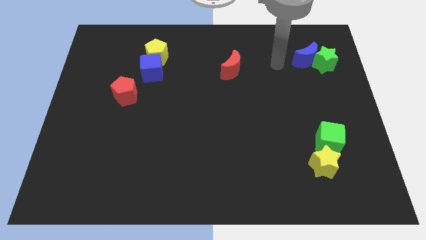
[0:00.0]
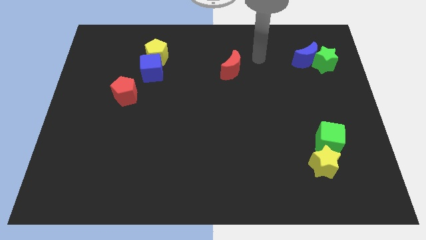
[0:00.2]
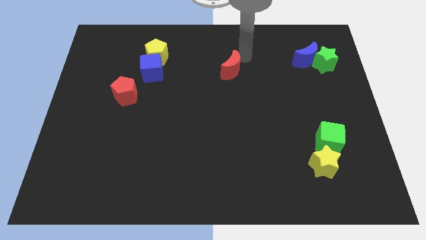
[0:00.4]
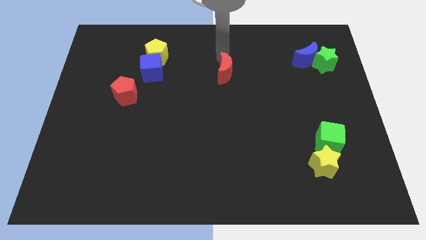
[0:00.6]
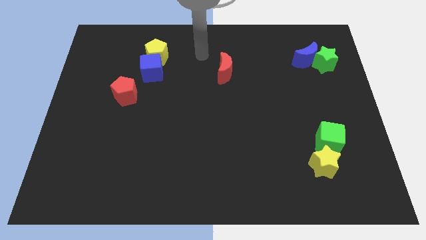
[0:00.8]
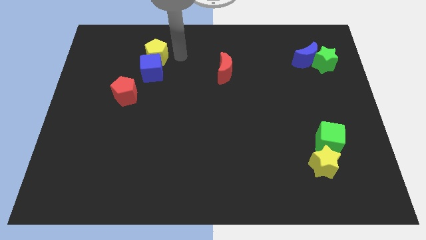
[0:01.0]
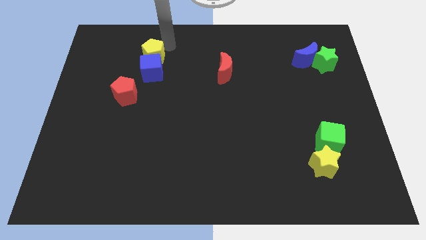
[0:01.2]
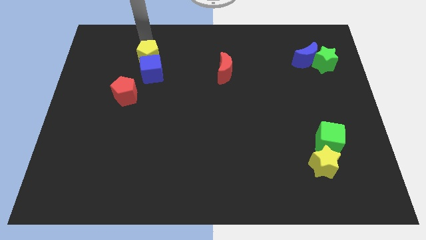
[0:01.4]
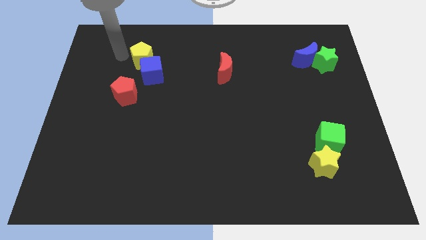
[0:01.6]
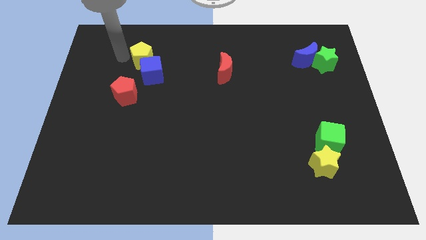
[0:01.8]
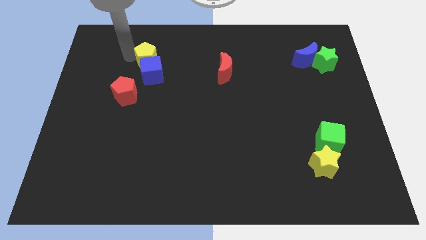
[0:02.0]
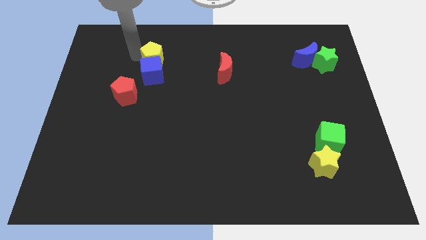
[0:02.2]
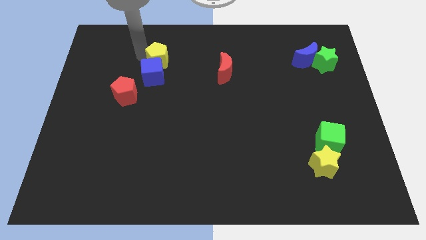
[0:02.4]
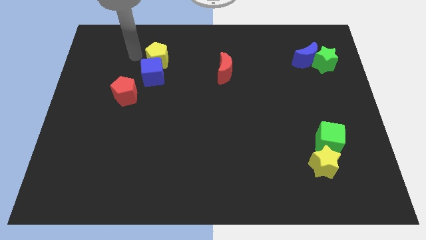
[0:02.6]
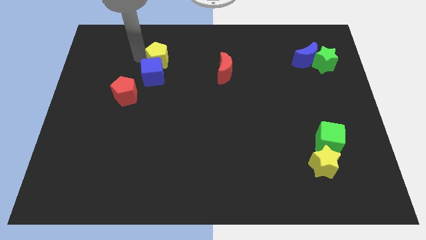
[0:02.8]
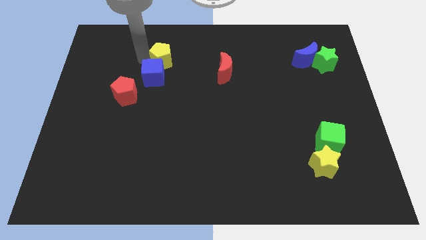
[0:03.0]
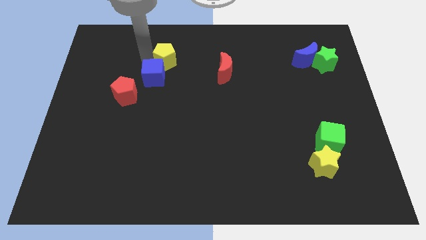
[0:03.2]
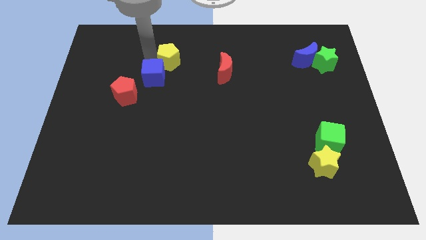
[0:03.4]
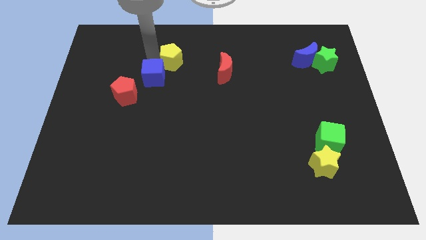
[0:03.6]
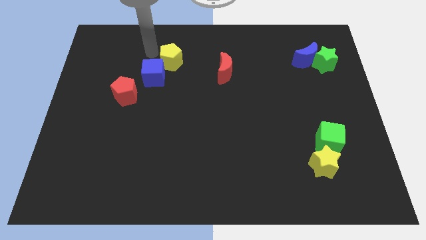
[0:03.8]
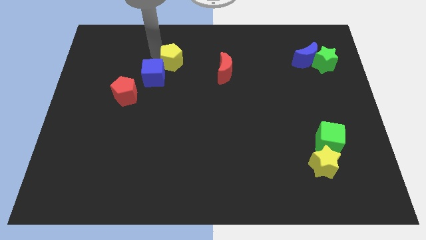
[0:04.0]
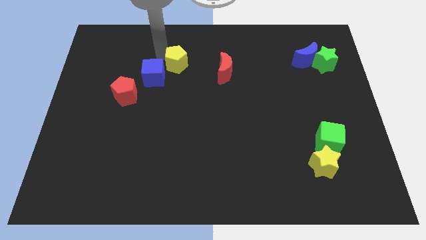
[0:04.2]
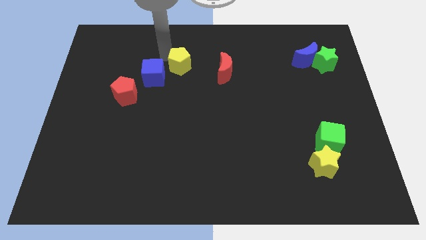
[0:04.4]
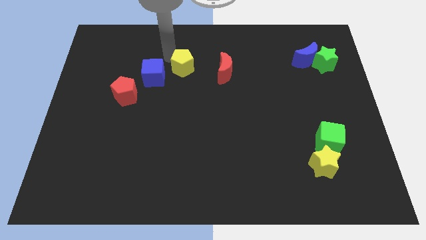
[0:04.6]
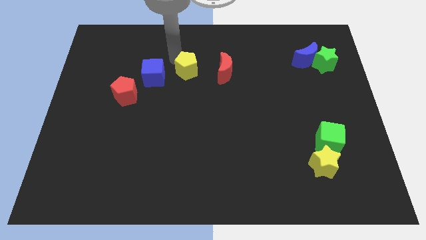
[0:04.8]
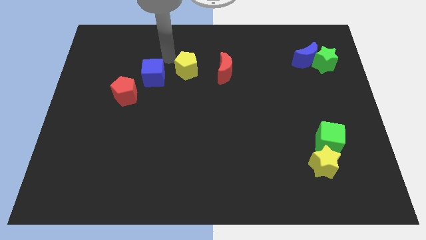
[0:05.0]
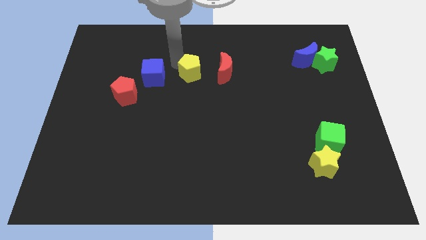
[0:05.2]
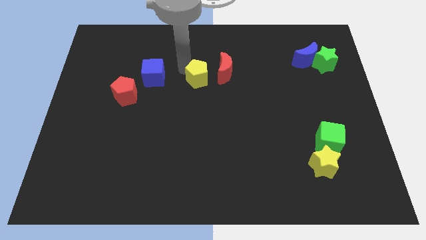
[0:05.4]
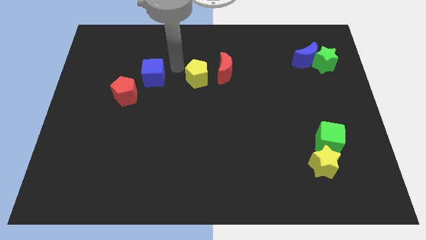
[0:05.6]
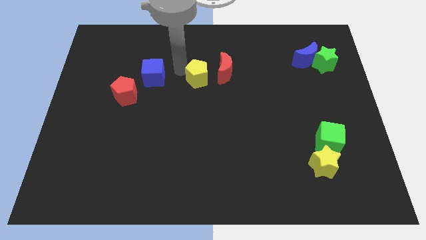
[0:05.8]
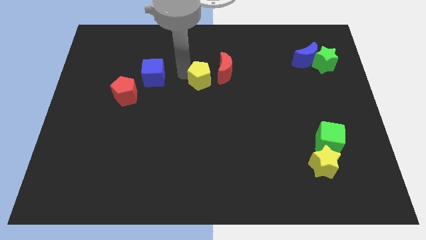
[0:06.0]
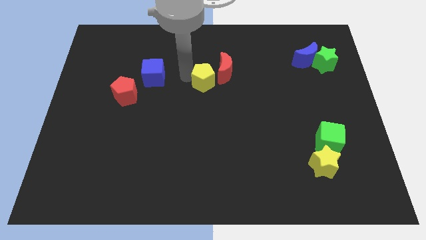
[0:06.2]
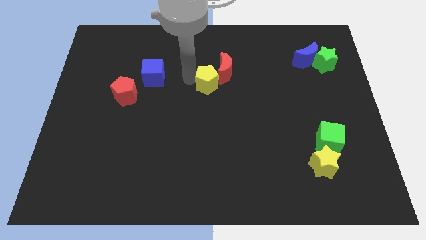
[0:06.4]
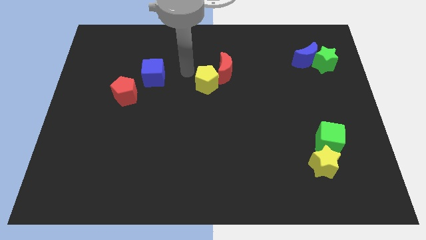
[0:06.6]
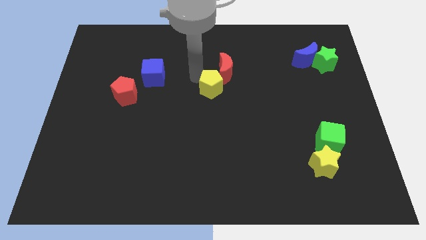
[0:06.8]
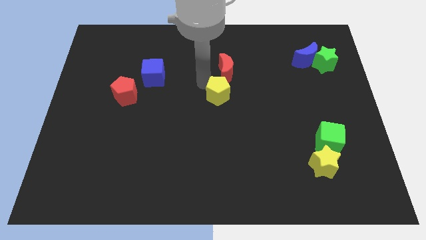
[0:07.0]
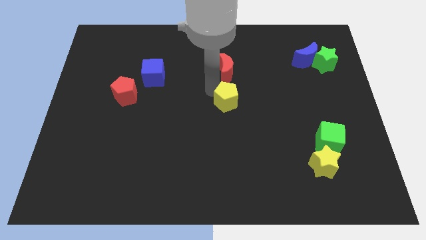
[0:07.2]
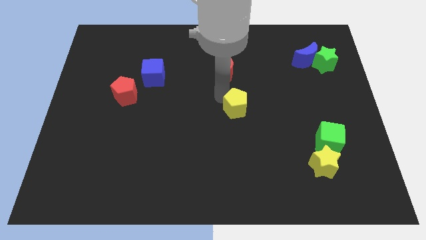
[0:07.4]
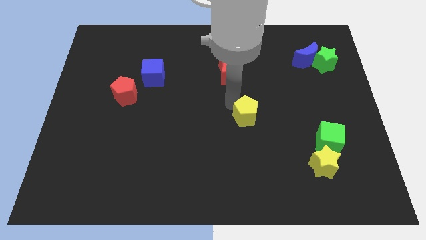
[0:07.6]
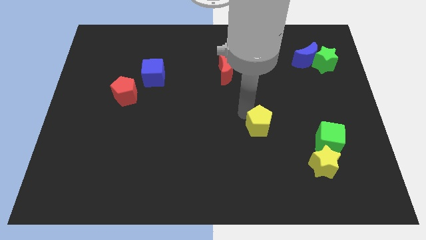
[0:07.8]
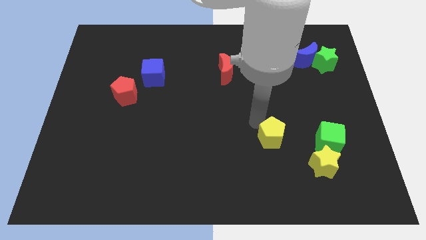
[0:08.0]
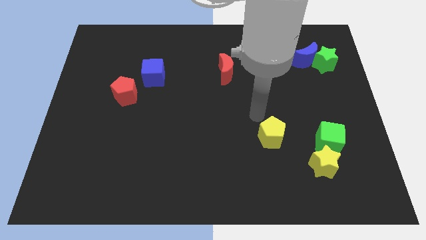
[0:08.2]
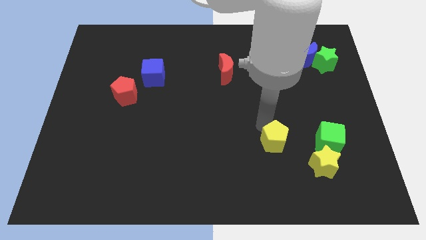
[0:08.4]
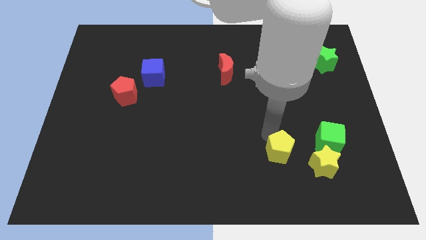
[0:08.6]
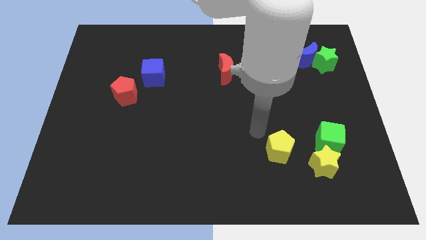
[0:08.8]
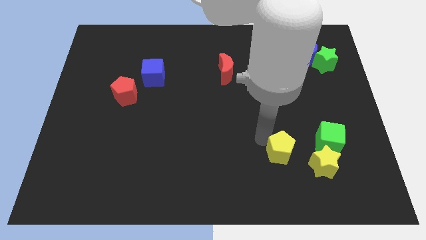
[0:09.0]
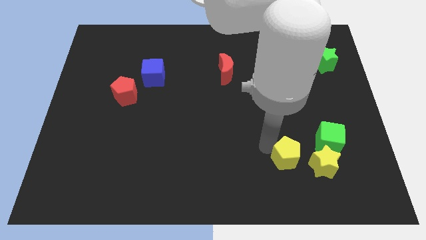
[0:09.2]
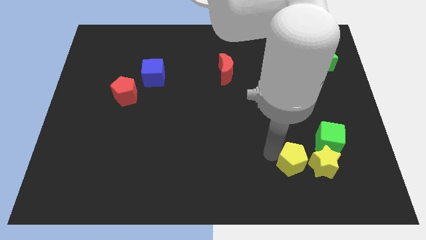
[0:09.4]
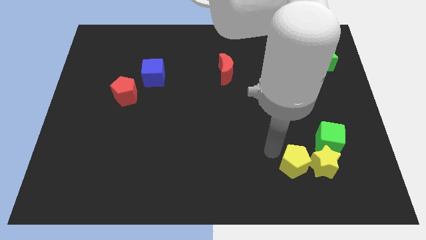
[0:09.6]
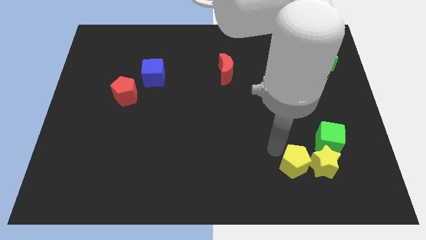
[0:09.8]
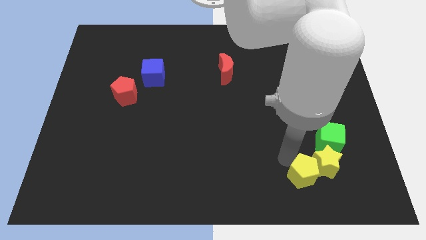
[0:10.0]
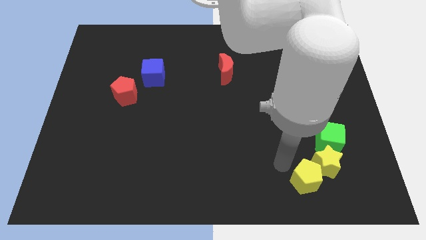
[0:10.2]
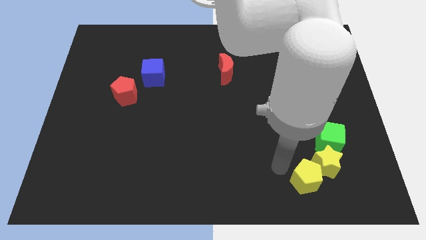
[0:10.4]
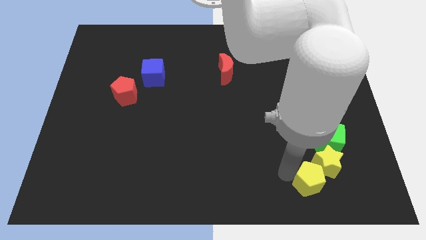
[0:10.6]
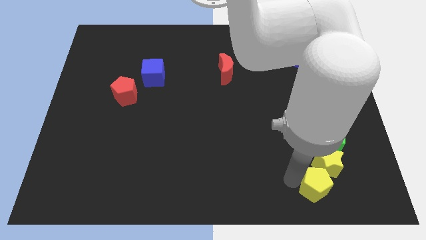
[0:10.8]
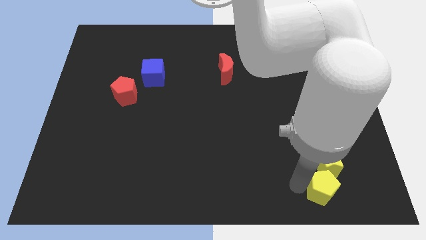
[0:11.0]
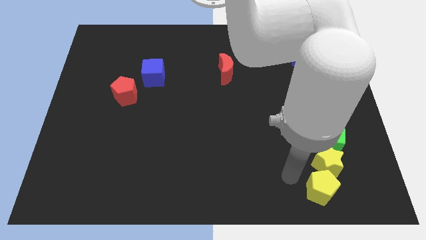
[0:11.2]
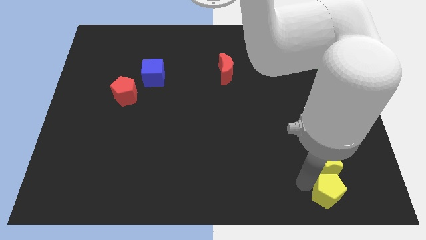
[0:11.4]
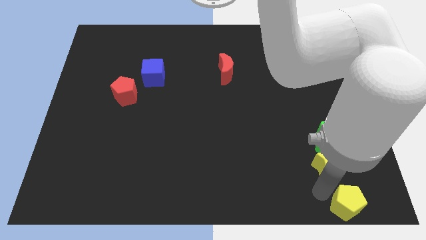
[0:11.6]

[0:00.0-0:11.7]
slide the yellow pentagon to the bottom right corner

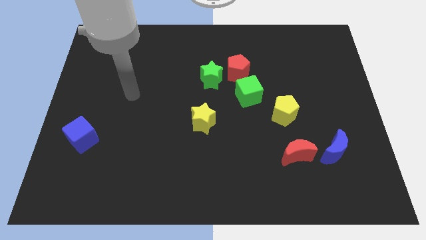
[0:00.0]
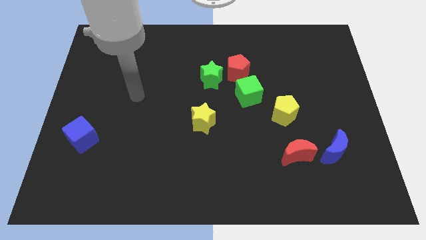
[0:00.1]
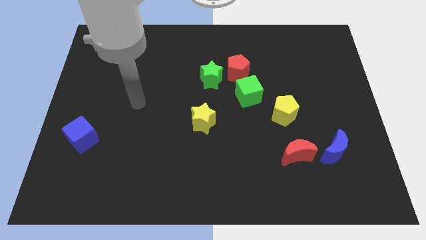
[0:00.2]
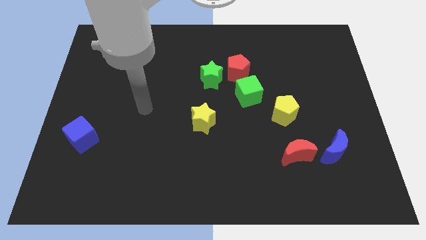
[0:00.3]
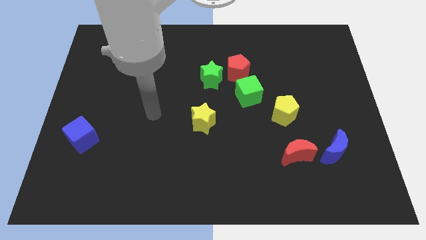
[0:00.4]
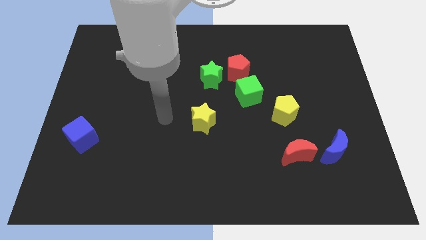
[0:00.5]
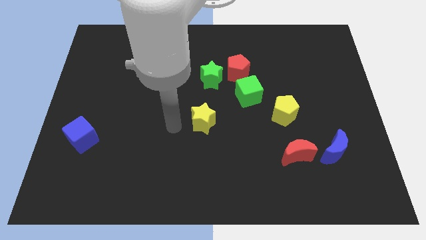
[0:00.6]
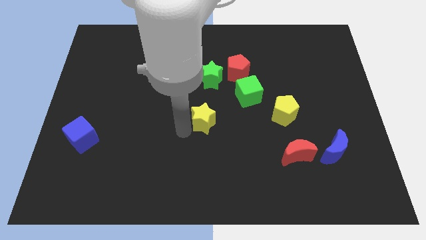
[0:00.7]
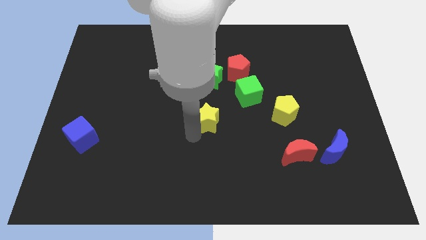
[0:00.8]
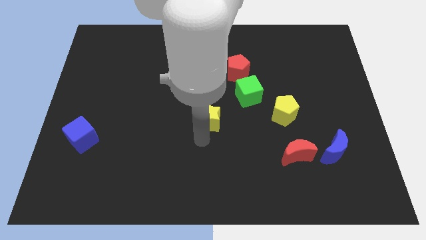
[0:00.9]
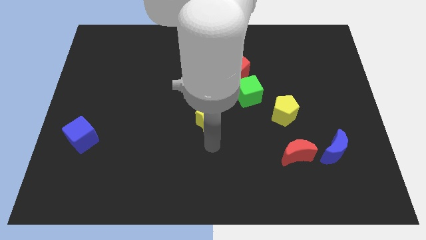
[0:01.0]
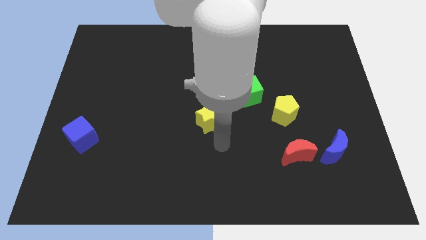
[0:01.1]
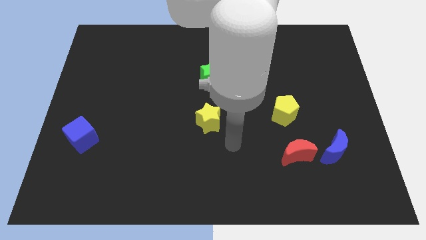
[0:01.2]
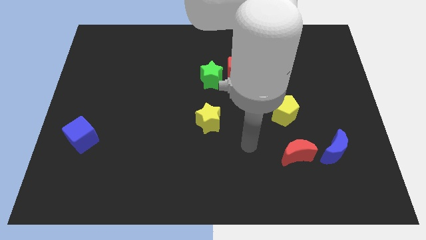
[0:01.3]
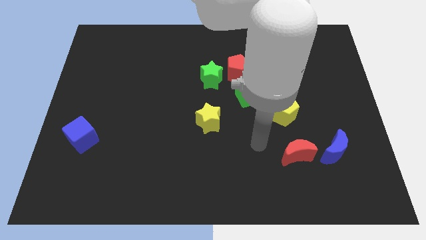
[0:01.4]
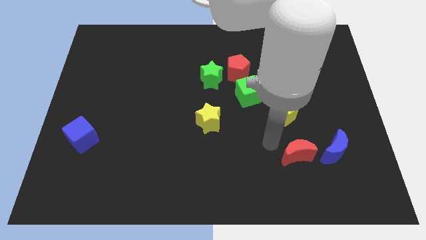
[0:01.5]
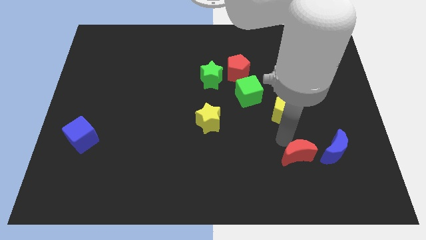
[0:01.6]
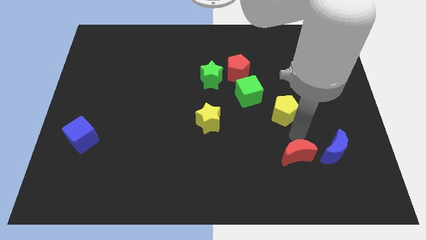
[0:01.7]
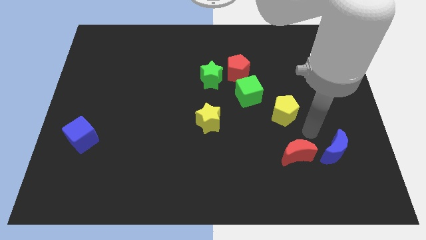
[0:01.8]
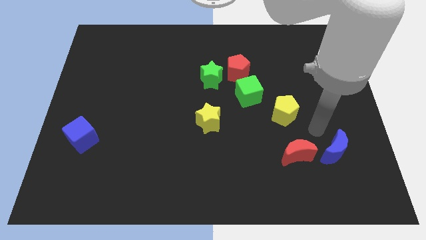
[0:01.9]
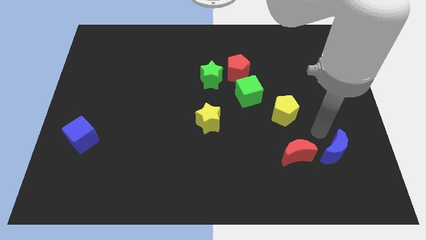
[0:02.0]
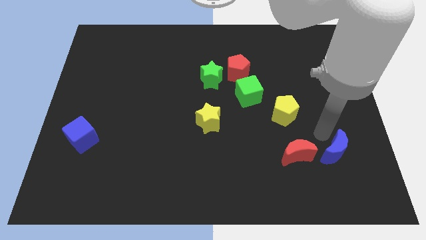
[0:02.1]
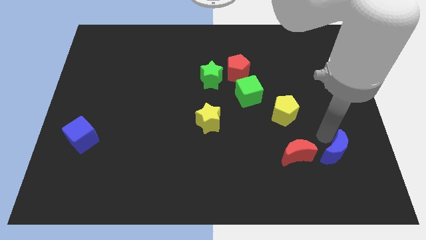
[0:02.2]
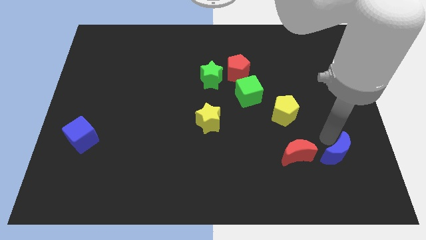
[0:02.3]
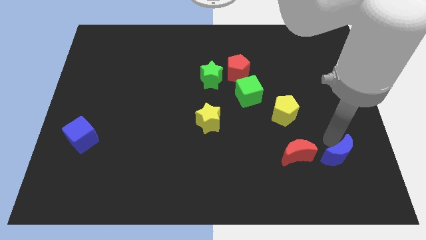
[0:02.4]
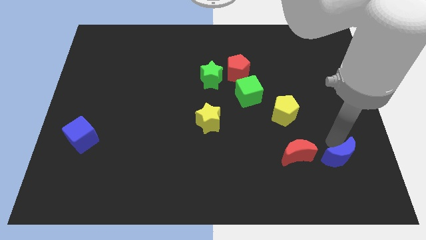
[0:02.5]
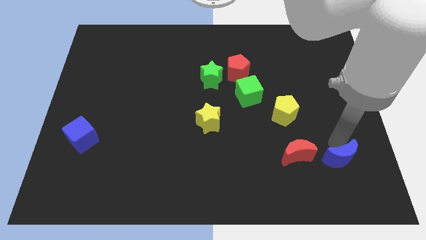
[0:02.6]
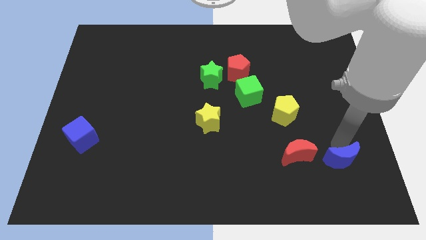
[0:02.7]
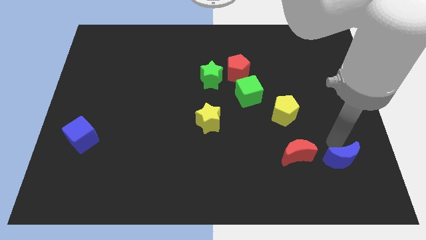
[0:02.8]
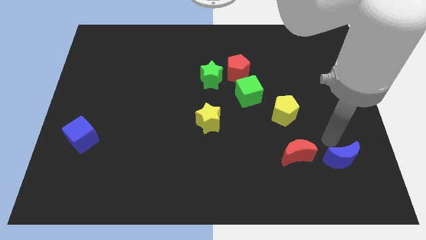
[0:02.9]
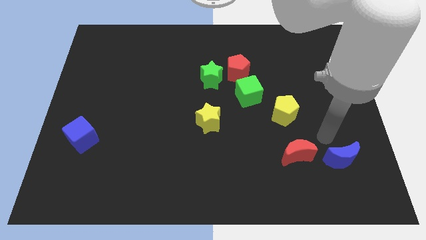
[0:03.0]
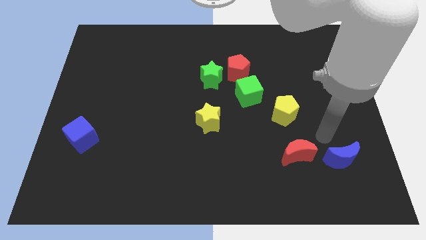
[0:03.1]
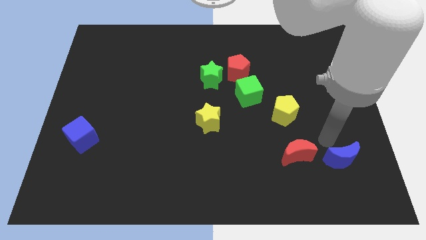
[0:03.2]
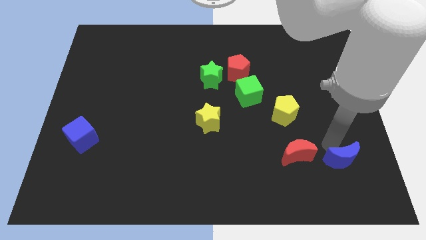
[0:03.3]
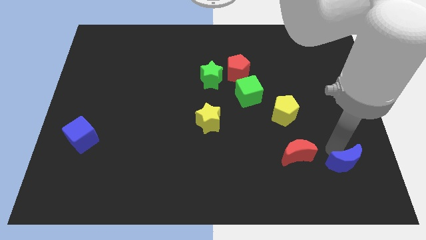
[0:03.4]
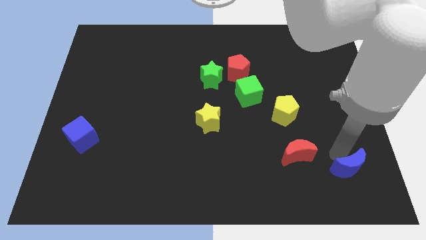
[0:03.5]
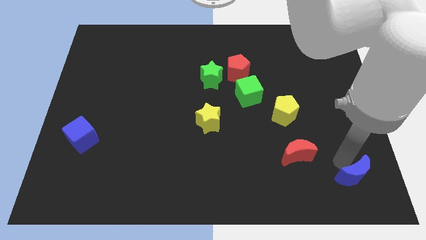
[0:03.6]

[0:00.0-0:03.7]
move the blue moon to the bottom right
